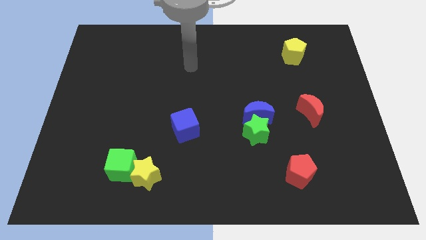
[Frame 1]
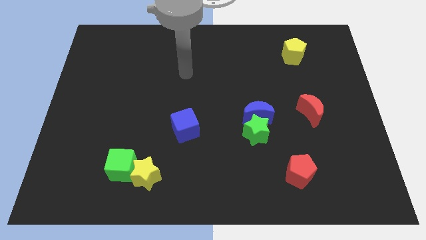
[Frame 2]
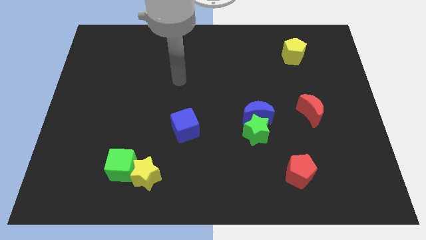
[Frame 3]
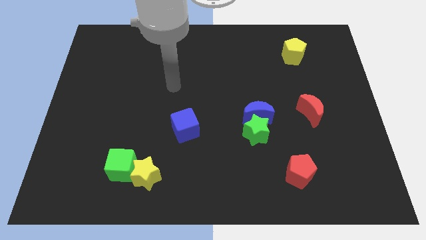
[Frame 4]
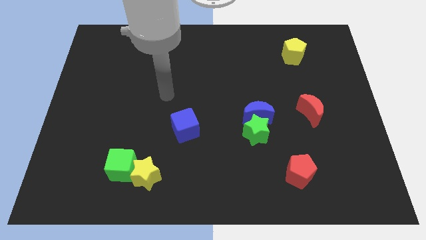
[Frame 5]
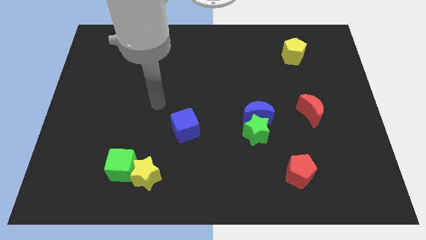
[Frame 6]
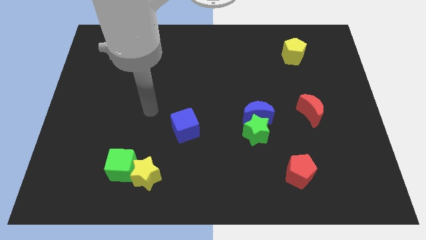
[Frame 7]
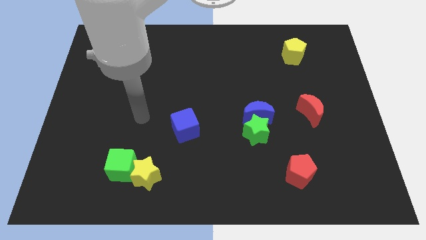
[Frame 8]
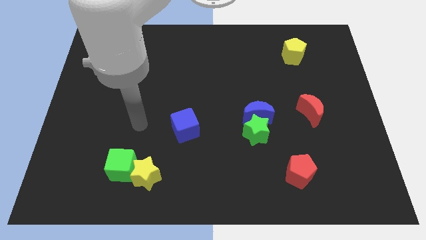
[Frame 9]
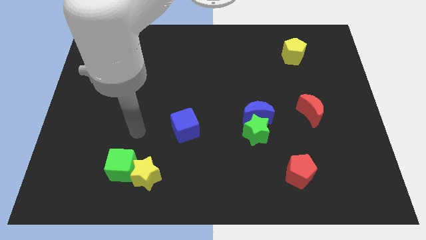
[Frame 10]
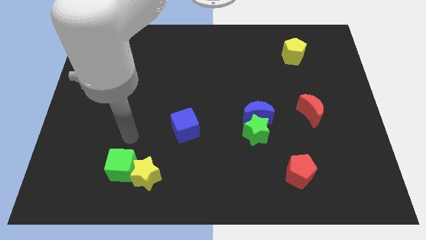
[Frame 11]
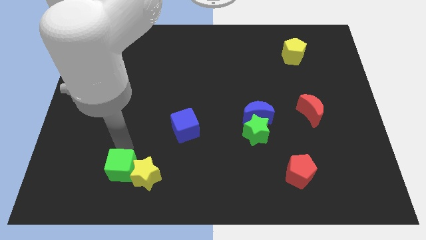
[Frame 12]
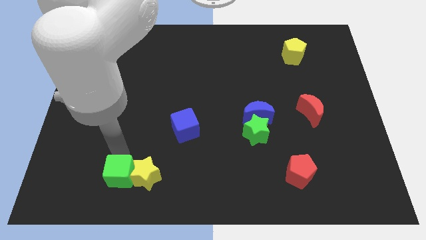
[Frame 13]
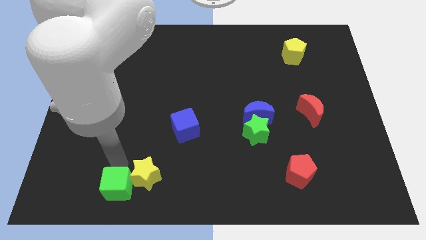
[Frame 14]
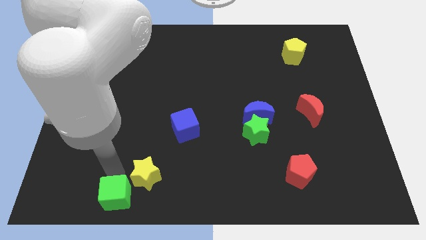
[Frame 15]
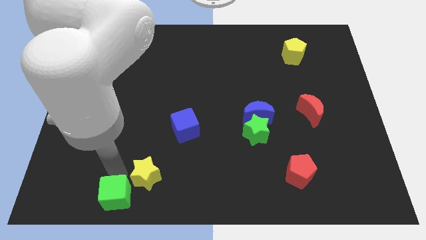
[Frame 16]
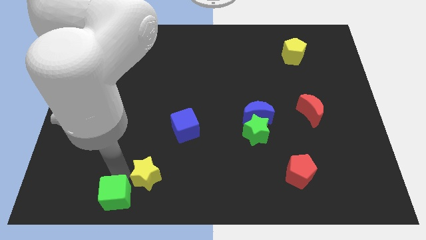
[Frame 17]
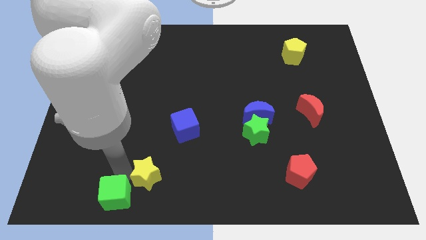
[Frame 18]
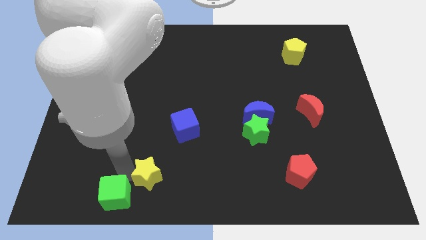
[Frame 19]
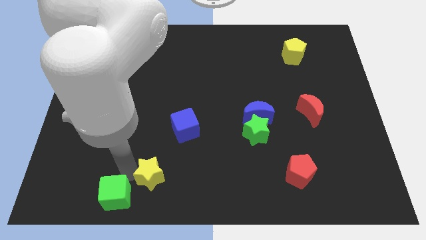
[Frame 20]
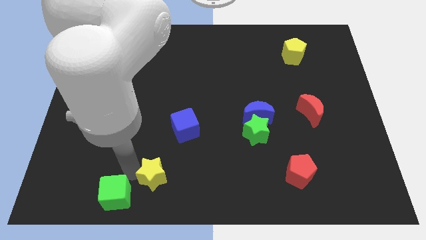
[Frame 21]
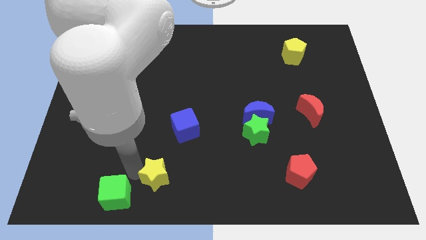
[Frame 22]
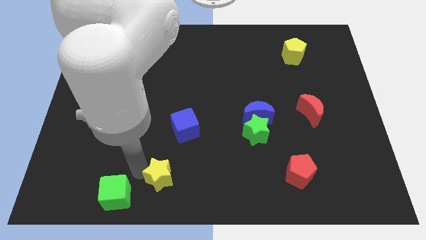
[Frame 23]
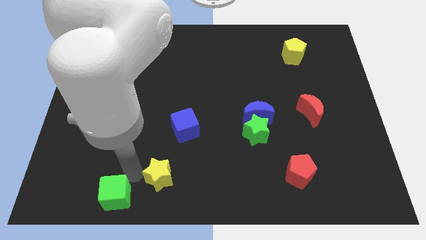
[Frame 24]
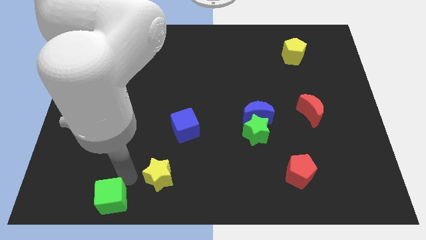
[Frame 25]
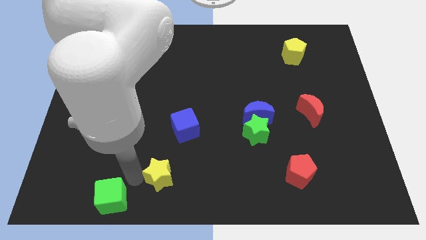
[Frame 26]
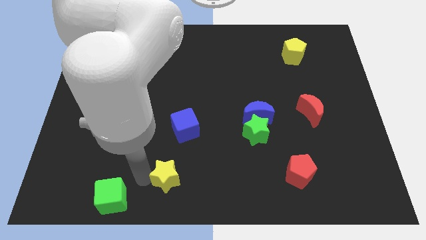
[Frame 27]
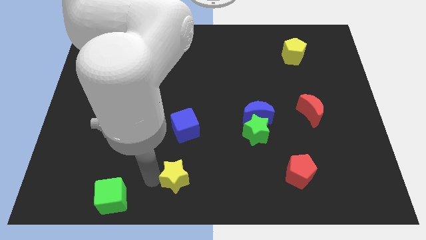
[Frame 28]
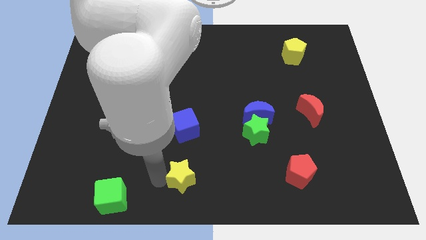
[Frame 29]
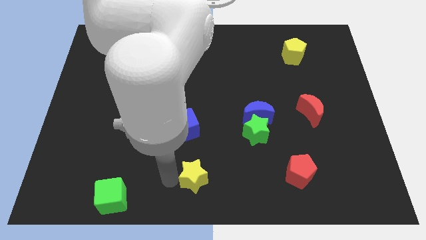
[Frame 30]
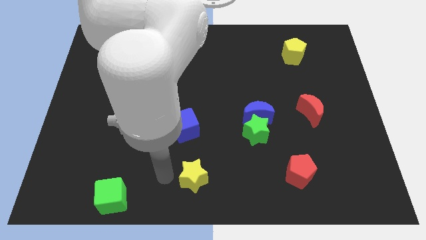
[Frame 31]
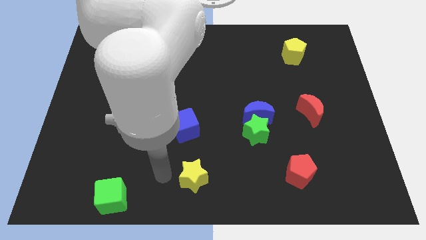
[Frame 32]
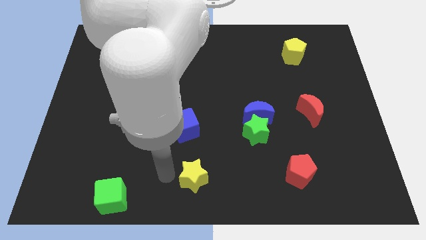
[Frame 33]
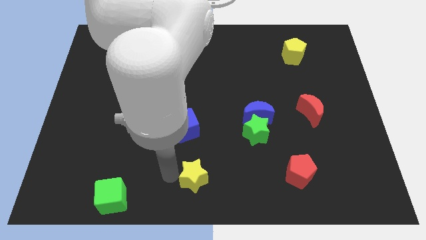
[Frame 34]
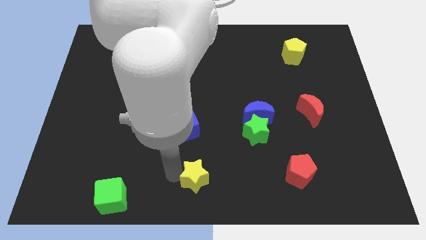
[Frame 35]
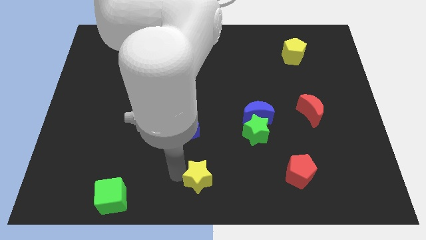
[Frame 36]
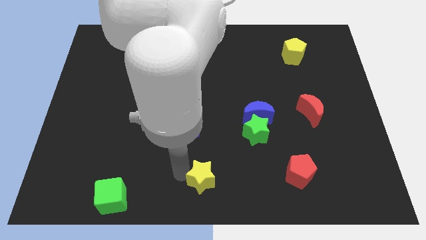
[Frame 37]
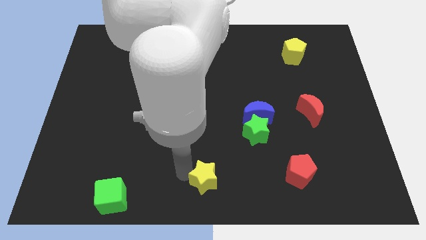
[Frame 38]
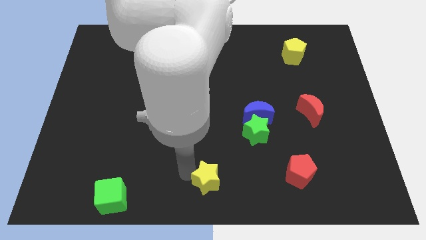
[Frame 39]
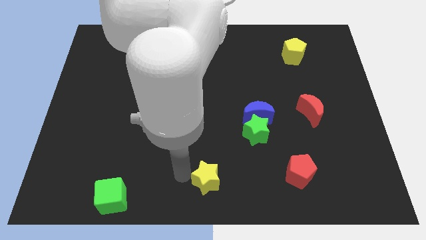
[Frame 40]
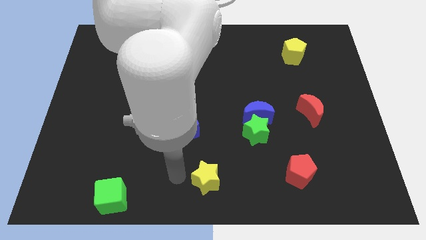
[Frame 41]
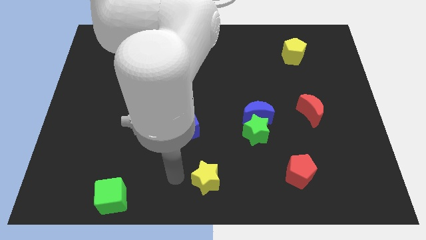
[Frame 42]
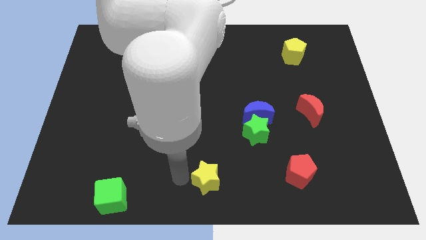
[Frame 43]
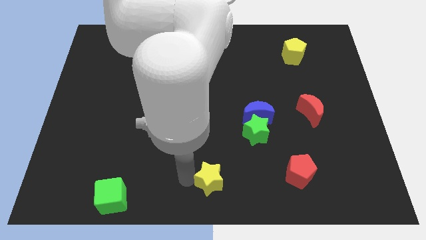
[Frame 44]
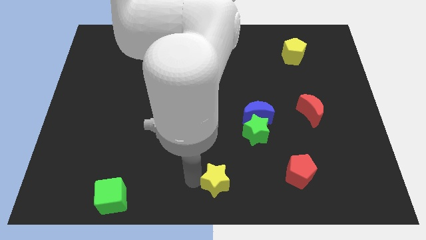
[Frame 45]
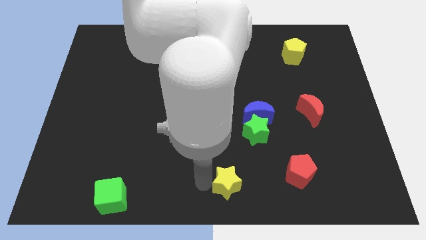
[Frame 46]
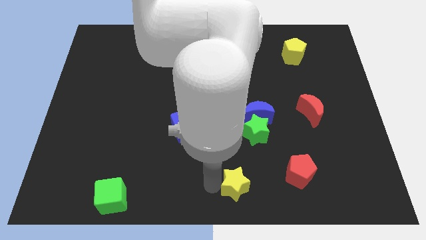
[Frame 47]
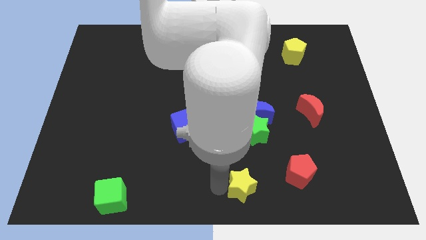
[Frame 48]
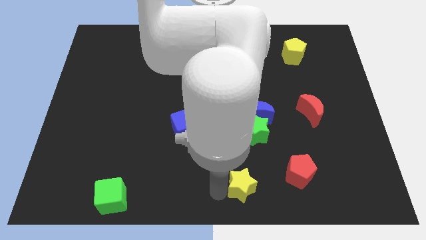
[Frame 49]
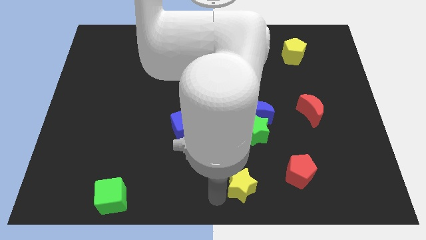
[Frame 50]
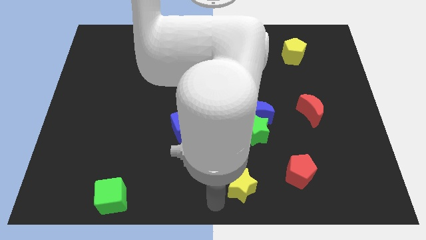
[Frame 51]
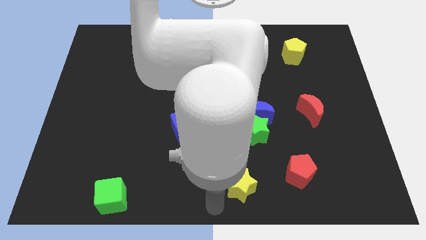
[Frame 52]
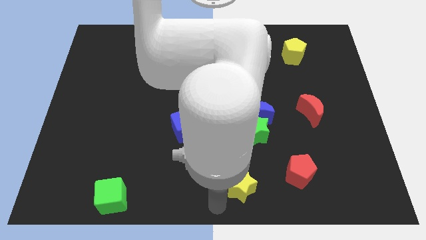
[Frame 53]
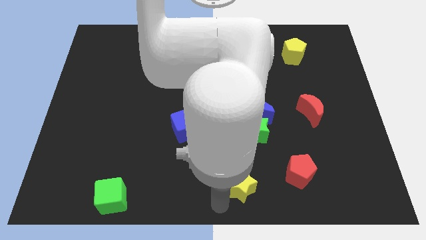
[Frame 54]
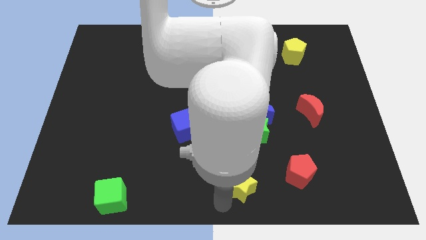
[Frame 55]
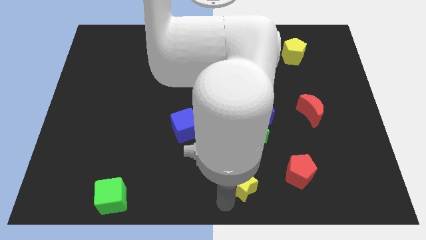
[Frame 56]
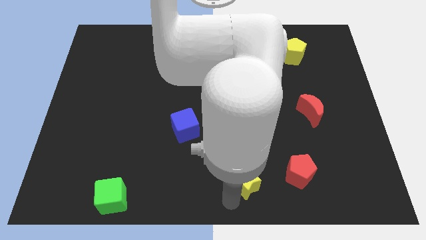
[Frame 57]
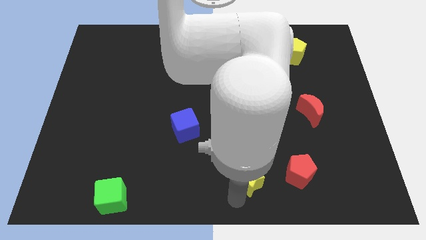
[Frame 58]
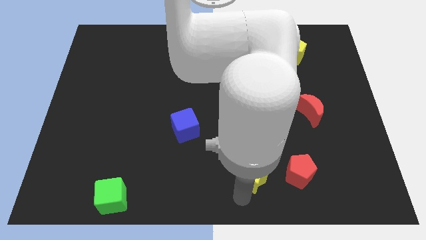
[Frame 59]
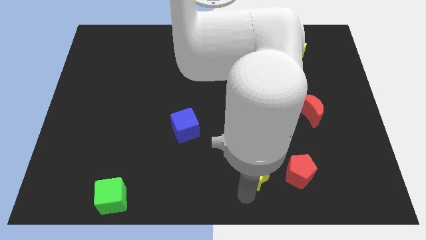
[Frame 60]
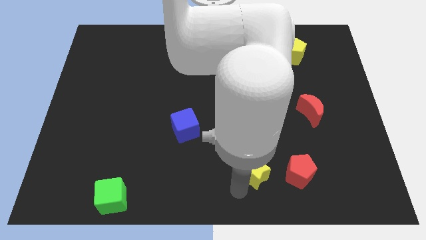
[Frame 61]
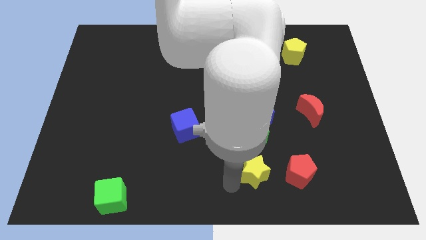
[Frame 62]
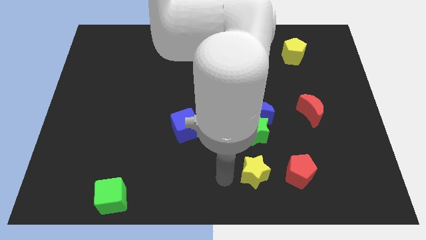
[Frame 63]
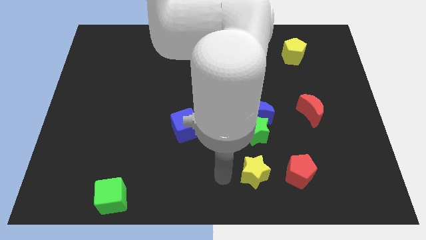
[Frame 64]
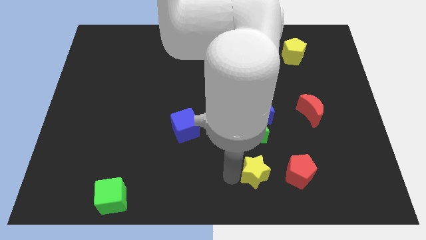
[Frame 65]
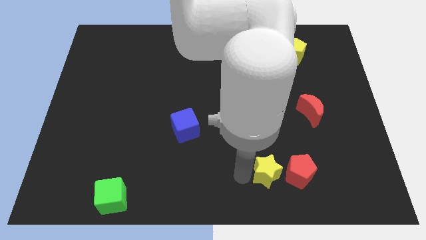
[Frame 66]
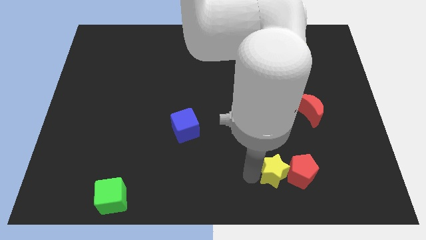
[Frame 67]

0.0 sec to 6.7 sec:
put the yellow star close to the red pentagon

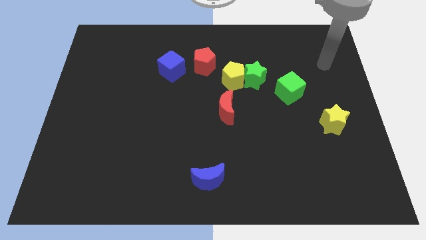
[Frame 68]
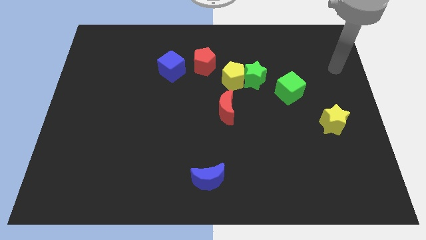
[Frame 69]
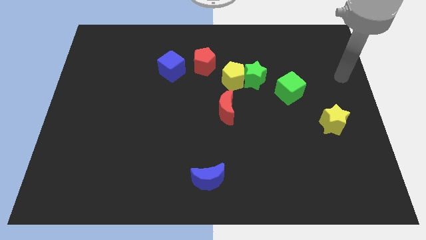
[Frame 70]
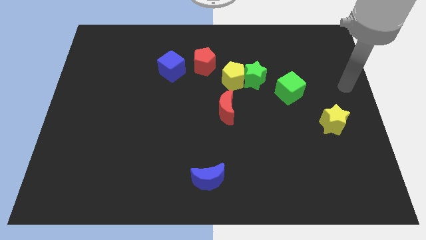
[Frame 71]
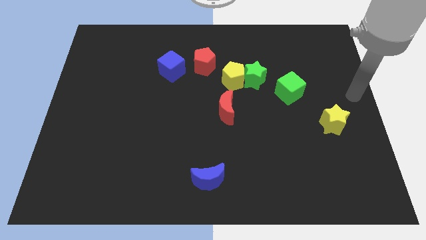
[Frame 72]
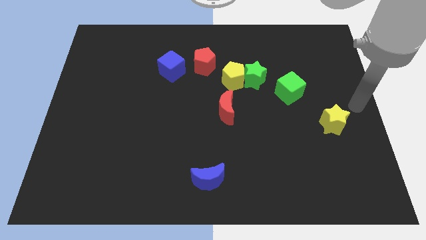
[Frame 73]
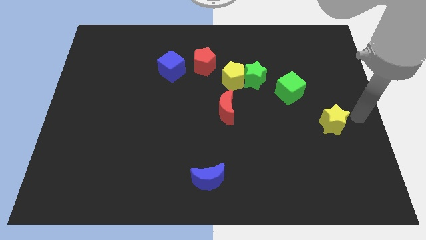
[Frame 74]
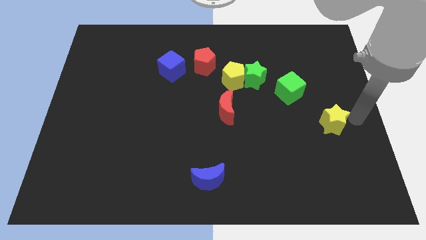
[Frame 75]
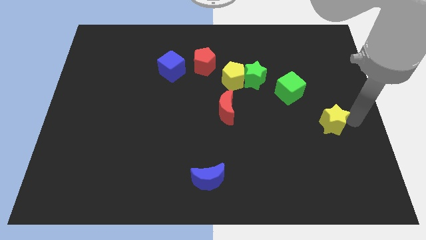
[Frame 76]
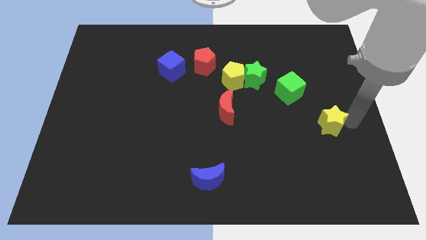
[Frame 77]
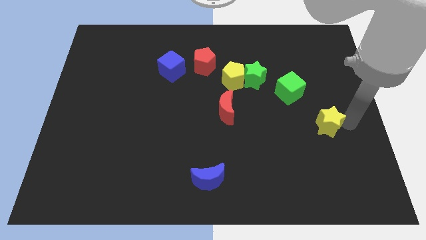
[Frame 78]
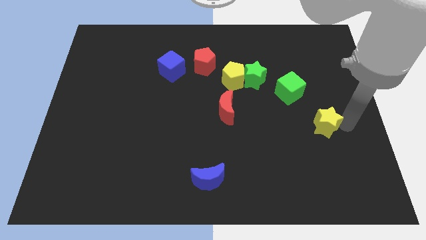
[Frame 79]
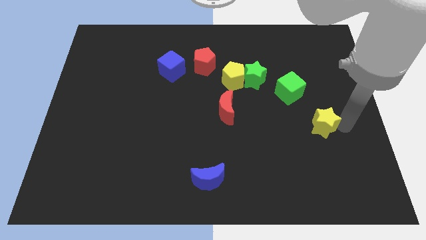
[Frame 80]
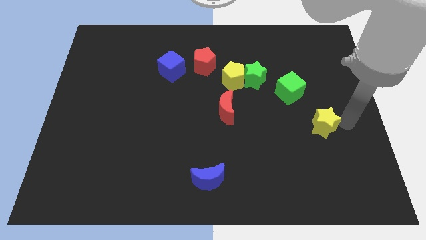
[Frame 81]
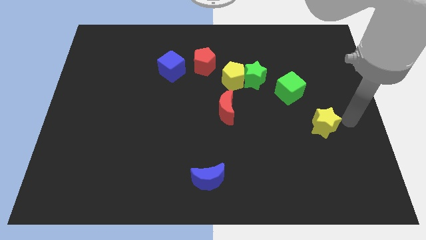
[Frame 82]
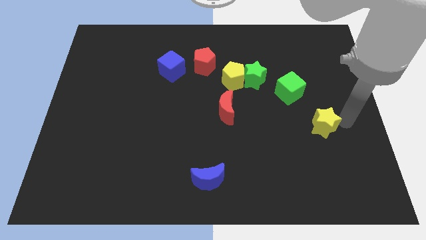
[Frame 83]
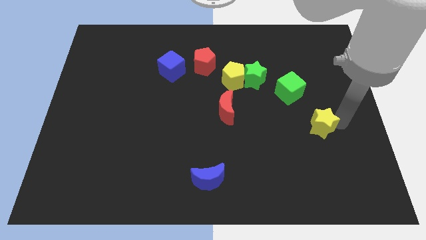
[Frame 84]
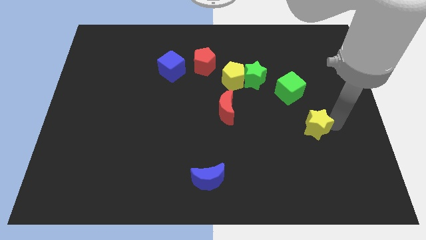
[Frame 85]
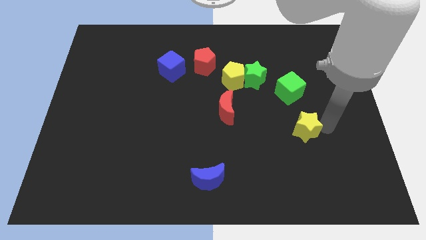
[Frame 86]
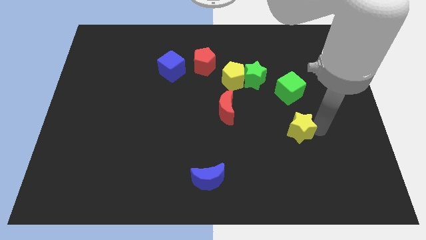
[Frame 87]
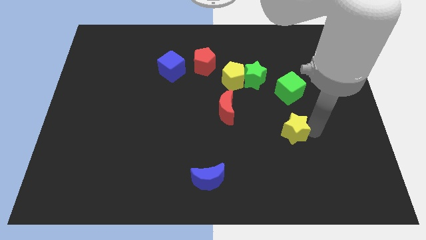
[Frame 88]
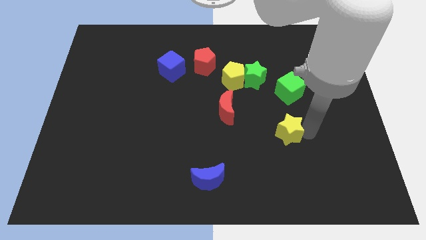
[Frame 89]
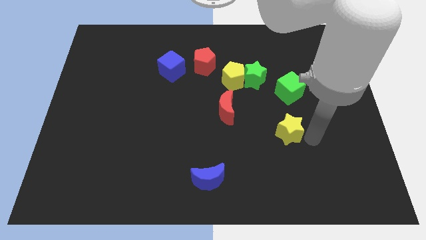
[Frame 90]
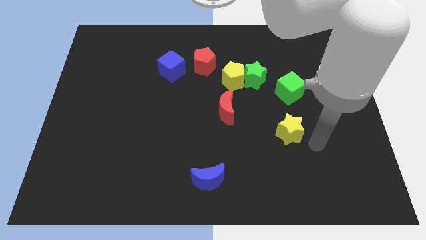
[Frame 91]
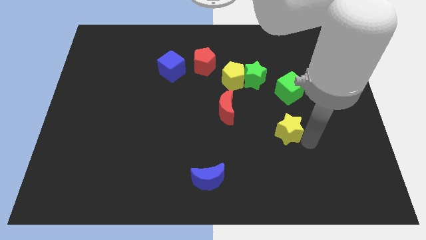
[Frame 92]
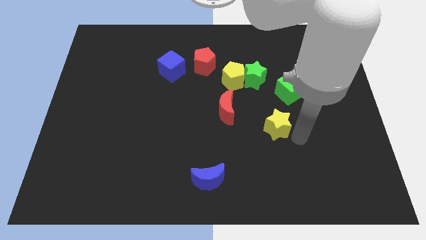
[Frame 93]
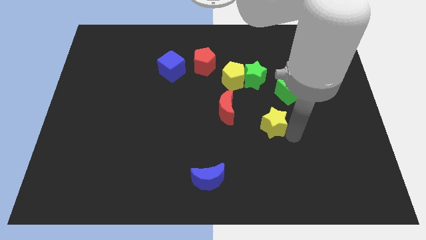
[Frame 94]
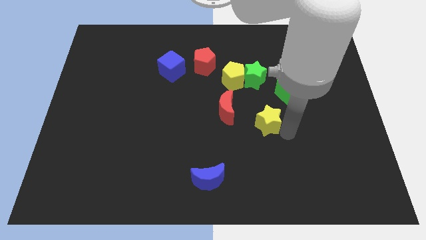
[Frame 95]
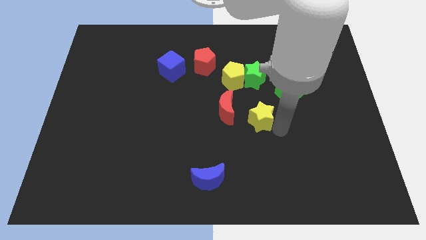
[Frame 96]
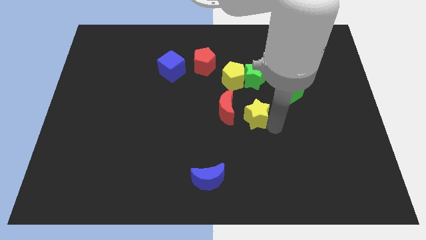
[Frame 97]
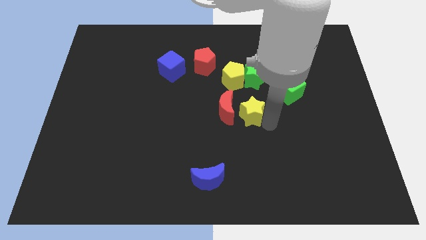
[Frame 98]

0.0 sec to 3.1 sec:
move the yellow star close to the red moon
